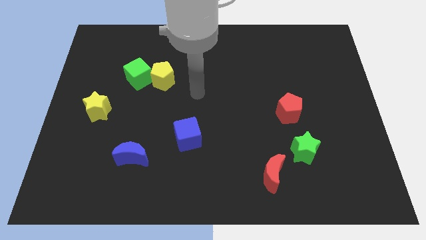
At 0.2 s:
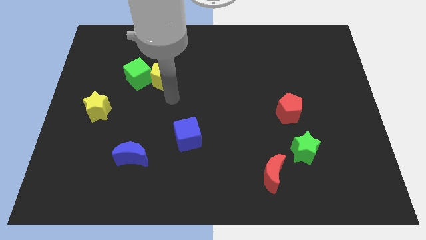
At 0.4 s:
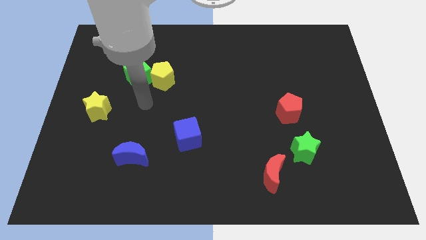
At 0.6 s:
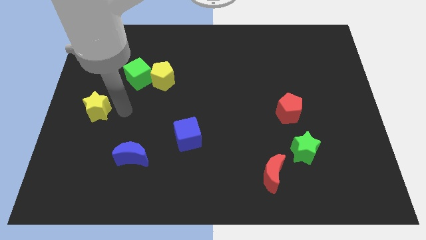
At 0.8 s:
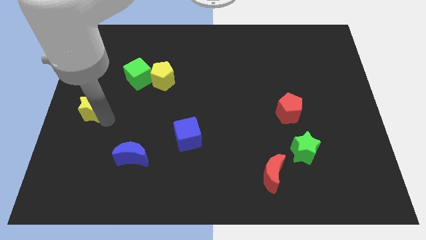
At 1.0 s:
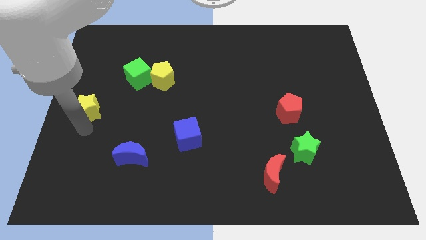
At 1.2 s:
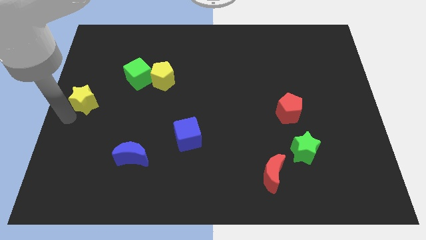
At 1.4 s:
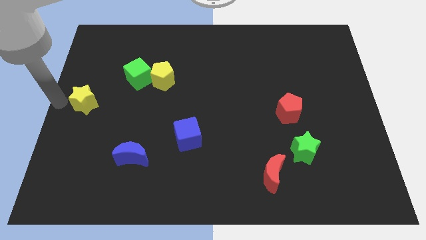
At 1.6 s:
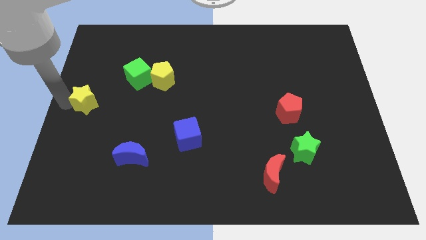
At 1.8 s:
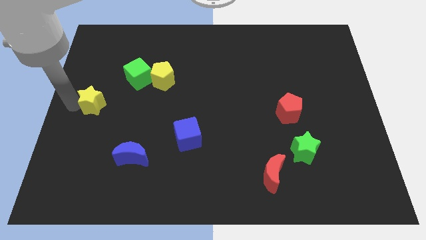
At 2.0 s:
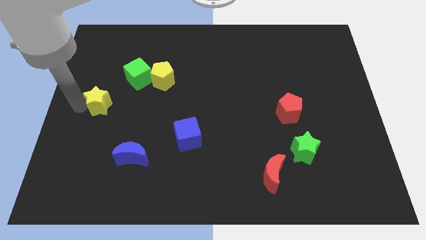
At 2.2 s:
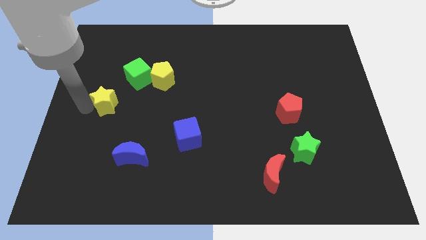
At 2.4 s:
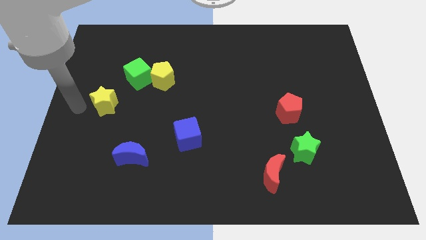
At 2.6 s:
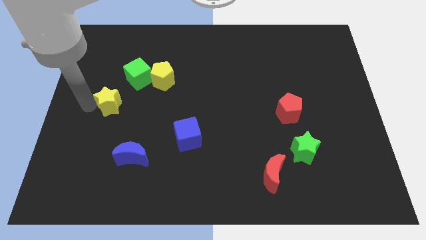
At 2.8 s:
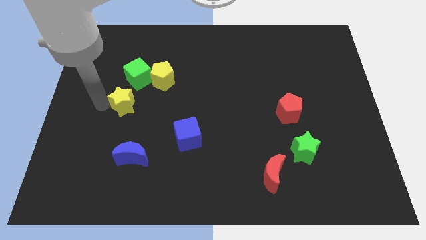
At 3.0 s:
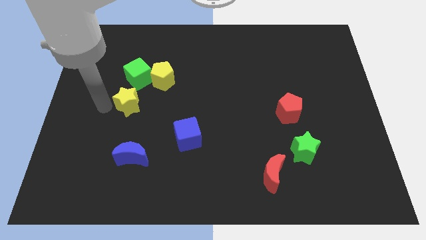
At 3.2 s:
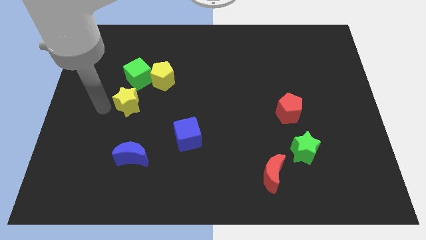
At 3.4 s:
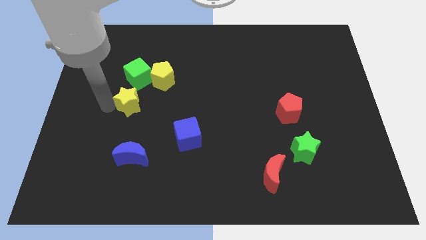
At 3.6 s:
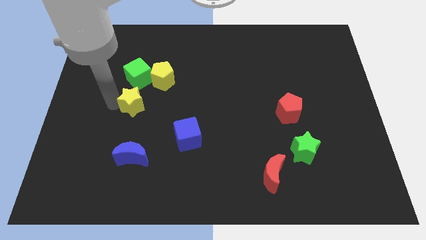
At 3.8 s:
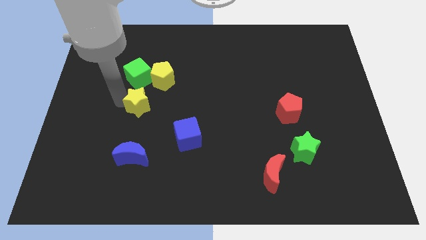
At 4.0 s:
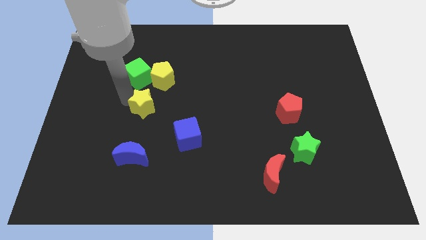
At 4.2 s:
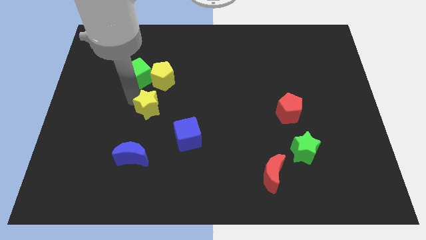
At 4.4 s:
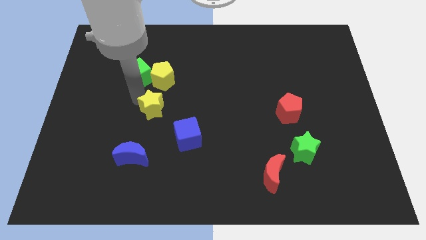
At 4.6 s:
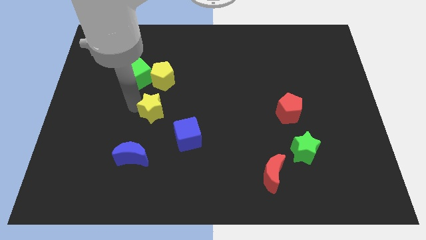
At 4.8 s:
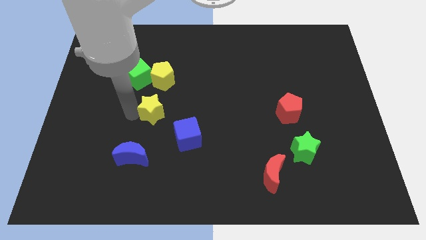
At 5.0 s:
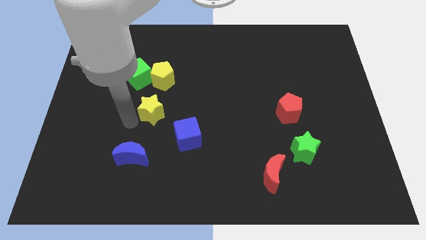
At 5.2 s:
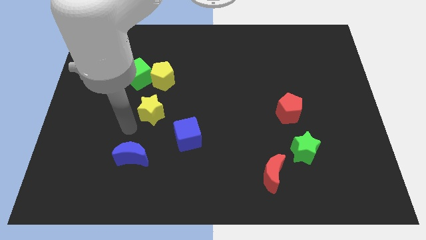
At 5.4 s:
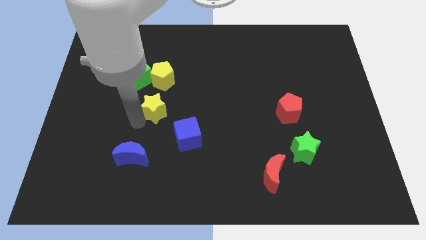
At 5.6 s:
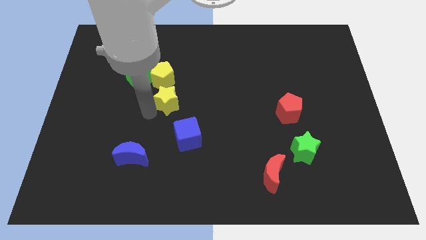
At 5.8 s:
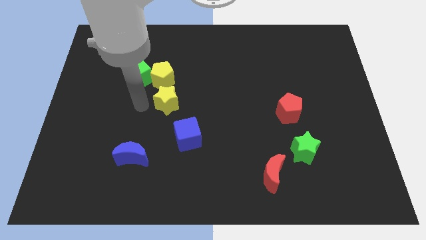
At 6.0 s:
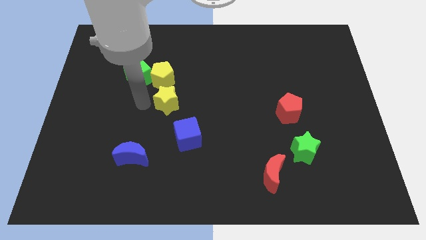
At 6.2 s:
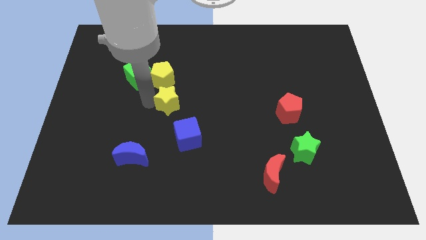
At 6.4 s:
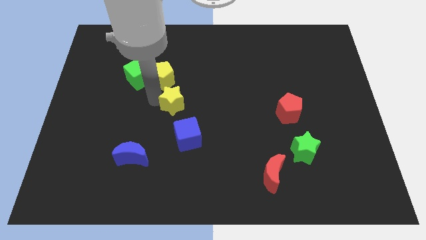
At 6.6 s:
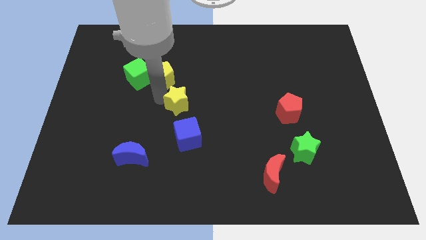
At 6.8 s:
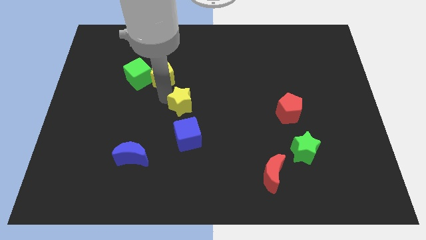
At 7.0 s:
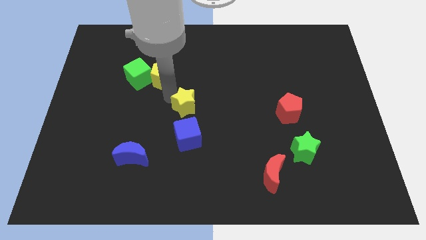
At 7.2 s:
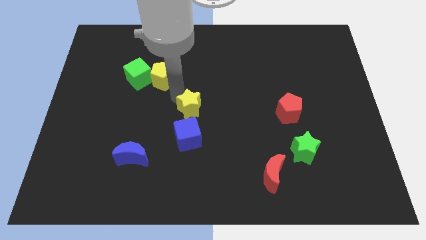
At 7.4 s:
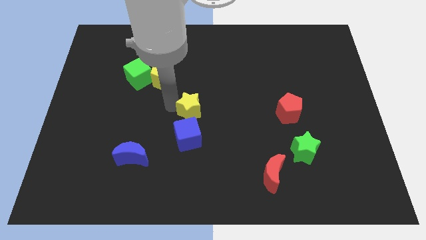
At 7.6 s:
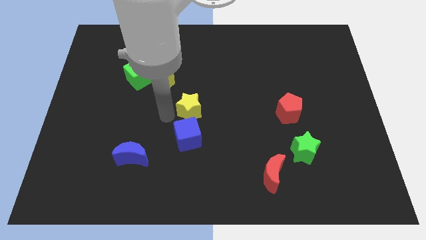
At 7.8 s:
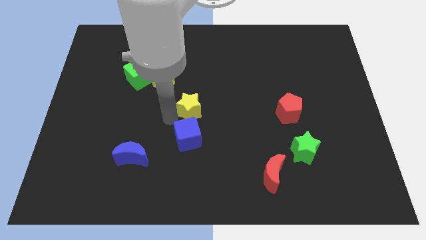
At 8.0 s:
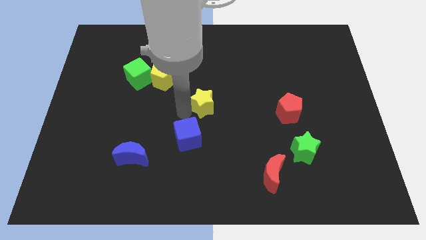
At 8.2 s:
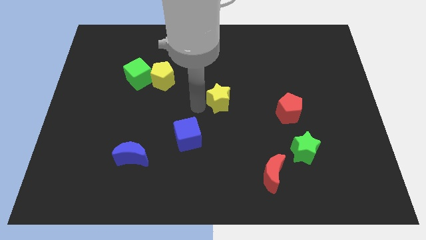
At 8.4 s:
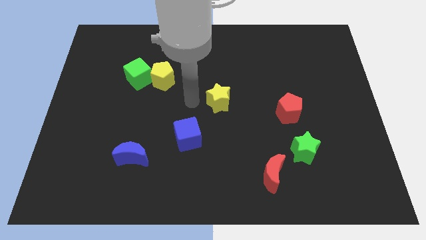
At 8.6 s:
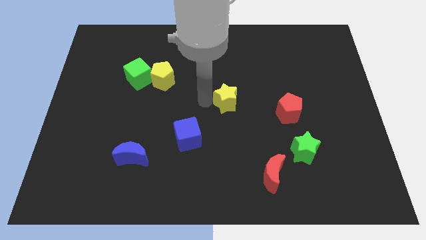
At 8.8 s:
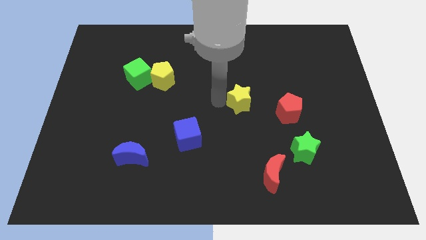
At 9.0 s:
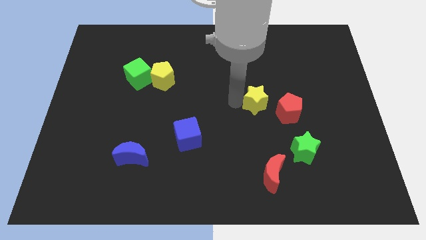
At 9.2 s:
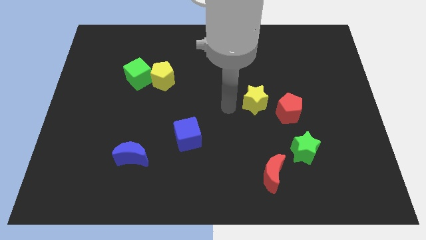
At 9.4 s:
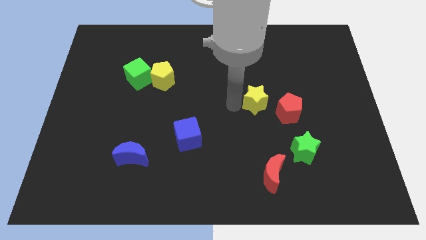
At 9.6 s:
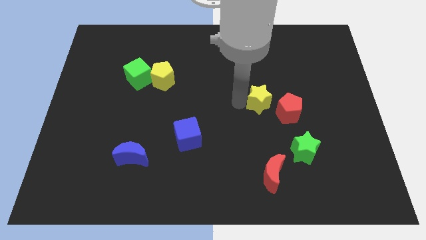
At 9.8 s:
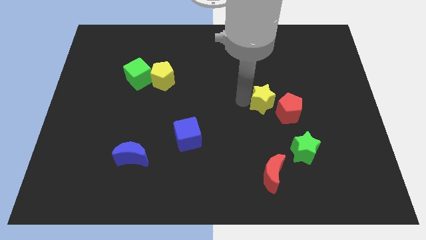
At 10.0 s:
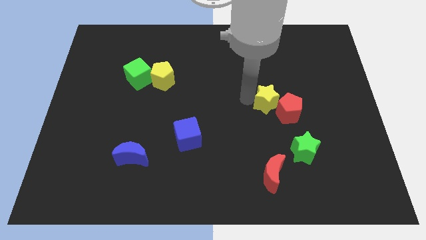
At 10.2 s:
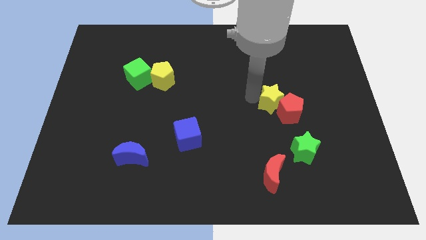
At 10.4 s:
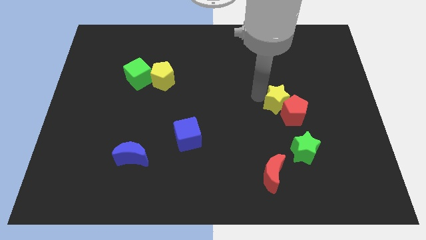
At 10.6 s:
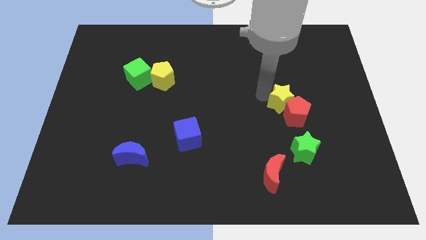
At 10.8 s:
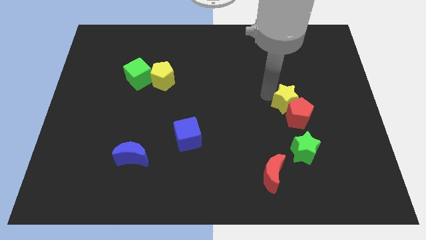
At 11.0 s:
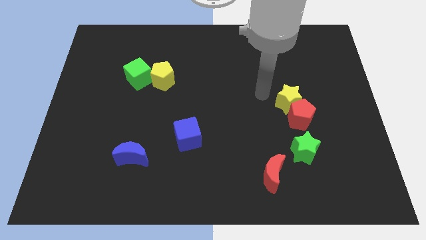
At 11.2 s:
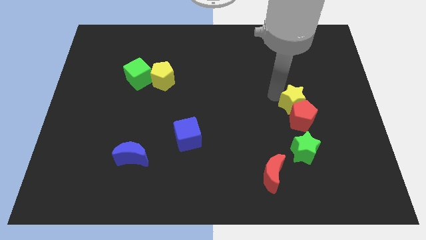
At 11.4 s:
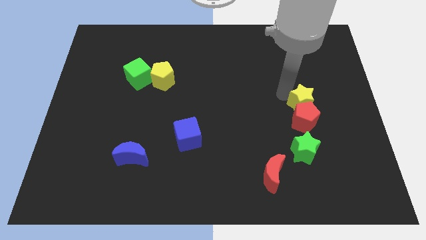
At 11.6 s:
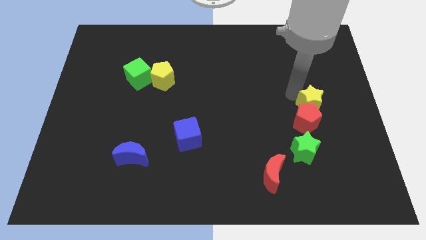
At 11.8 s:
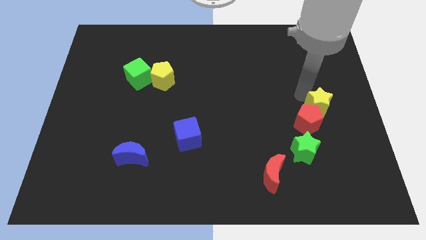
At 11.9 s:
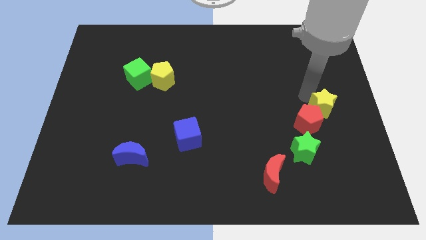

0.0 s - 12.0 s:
move the yellow star right of the red pentagon

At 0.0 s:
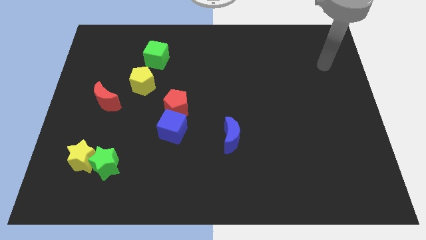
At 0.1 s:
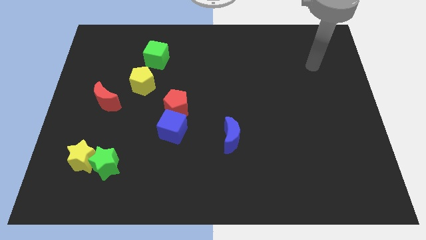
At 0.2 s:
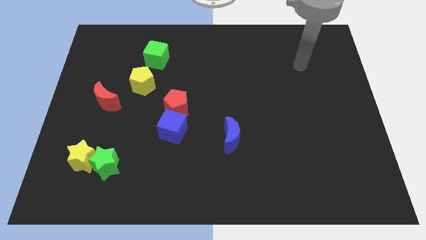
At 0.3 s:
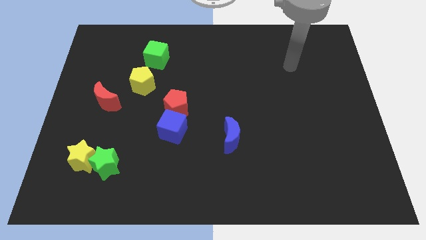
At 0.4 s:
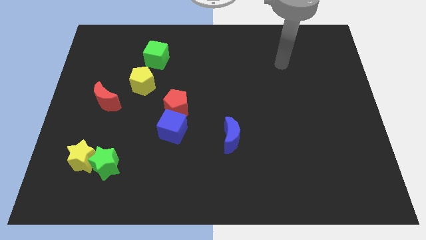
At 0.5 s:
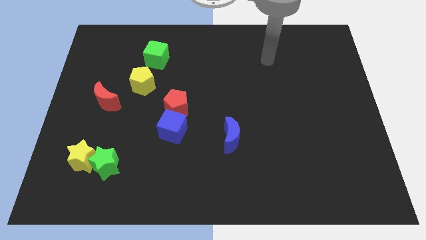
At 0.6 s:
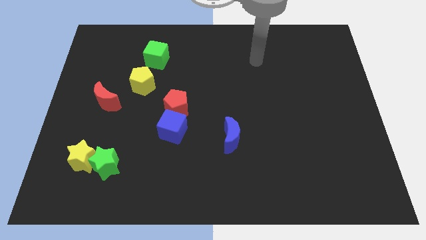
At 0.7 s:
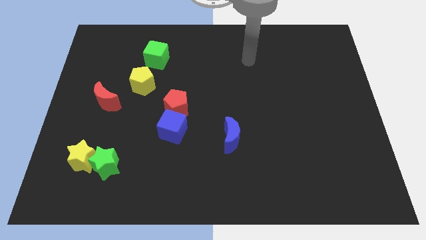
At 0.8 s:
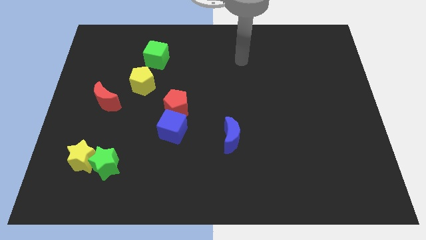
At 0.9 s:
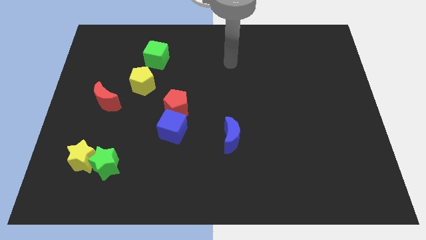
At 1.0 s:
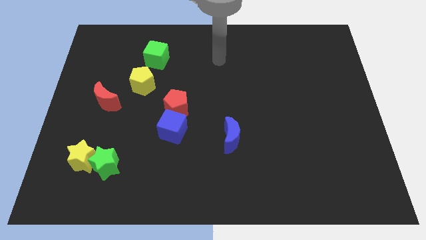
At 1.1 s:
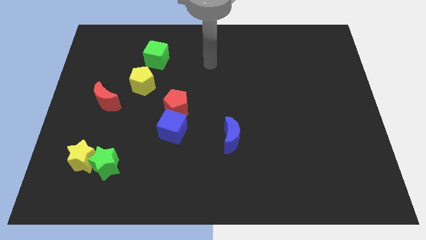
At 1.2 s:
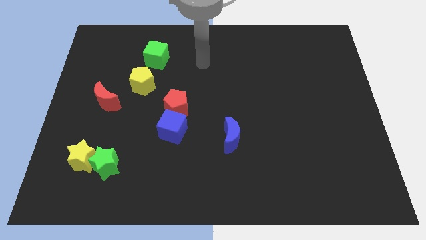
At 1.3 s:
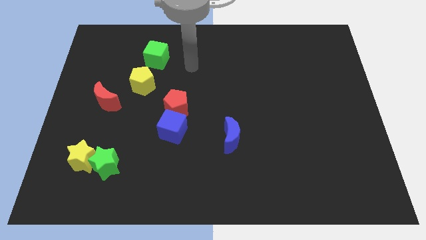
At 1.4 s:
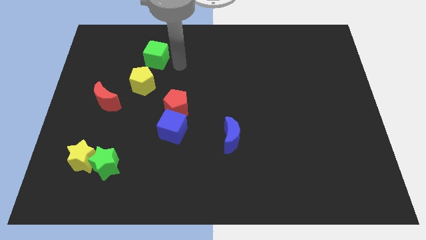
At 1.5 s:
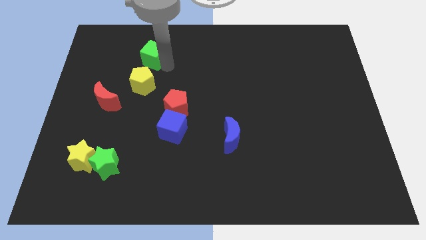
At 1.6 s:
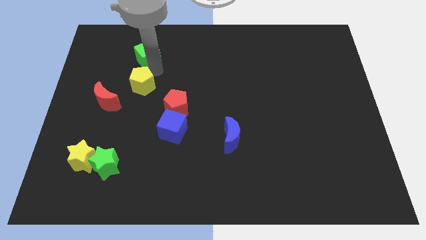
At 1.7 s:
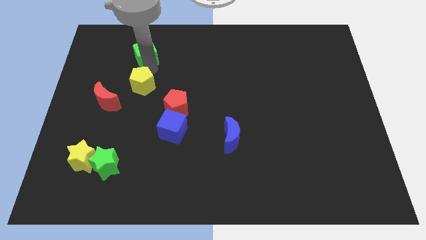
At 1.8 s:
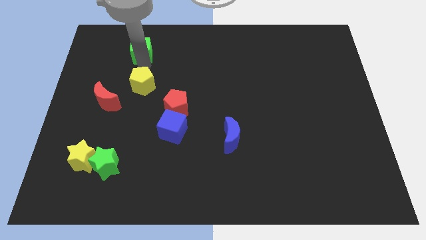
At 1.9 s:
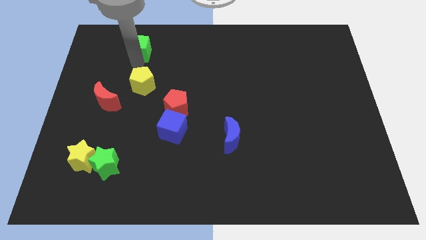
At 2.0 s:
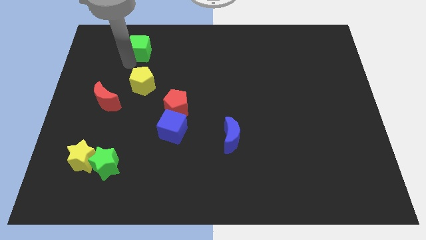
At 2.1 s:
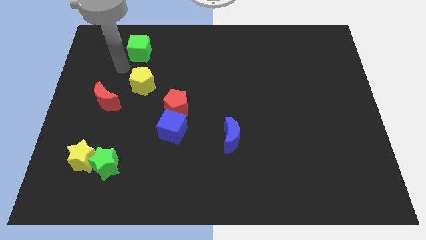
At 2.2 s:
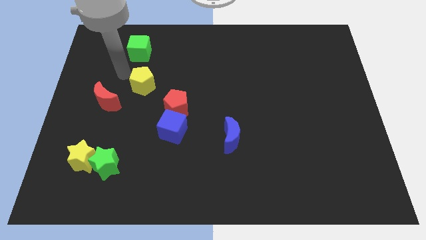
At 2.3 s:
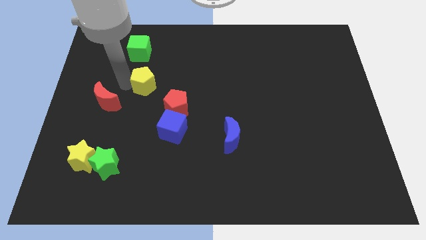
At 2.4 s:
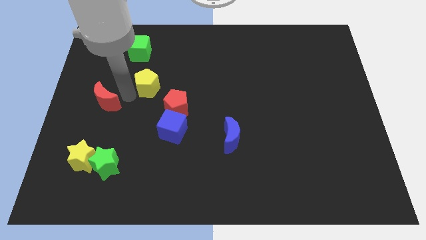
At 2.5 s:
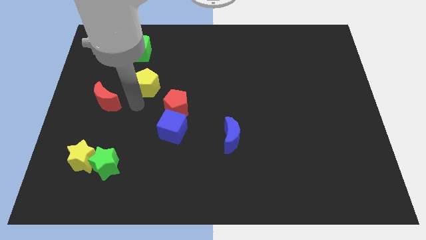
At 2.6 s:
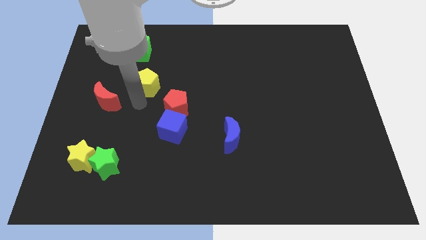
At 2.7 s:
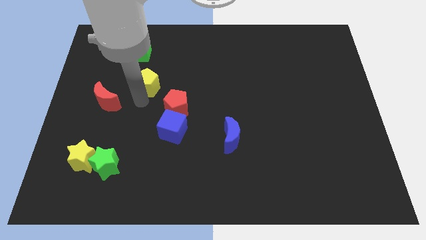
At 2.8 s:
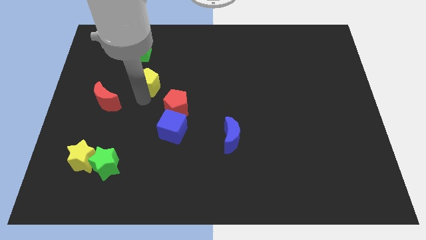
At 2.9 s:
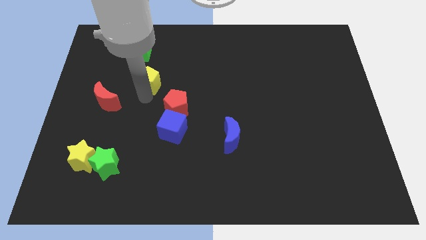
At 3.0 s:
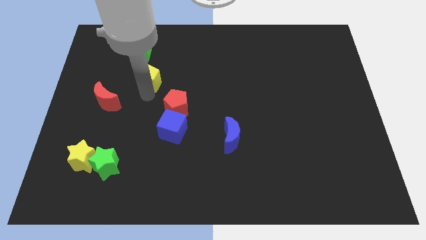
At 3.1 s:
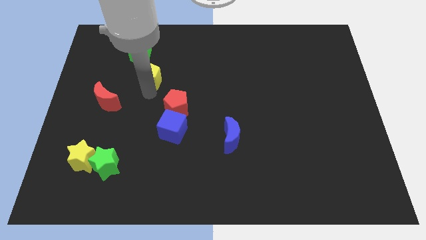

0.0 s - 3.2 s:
push the yellow pentagon to the bottom right side of the green cube
